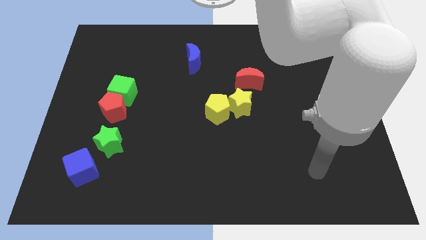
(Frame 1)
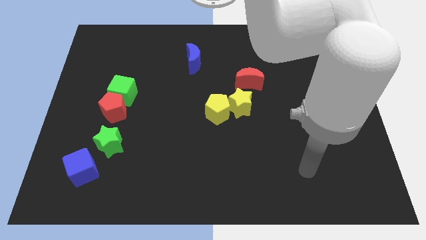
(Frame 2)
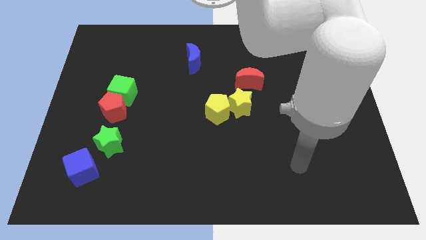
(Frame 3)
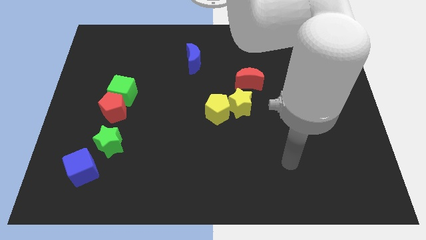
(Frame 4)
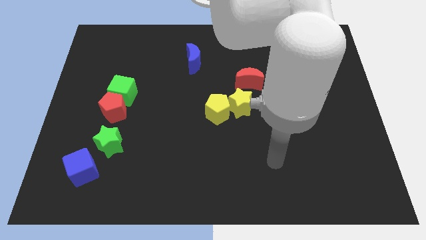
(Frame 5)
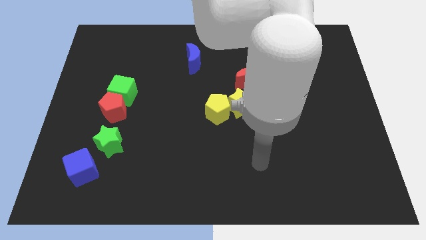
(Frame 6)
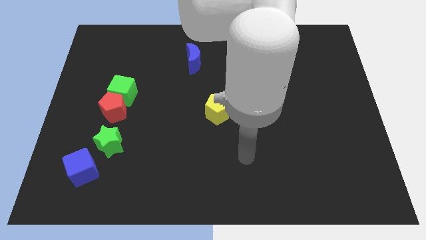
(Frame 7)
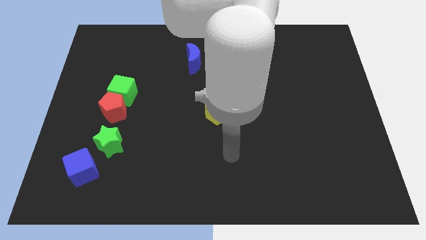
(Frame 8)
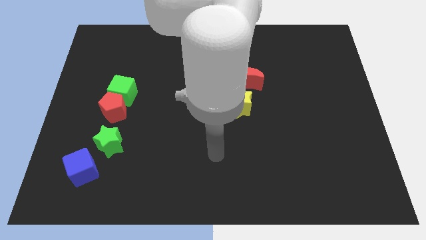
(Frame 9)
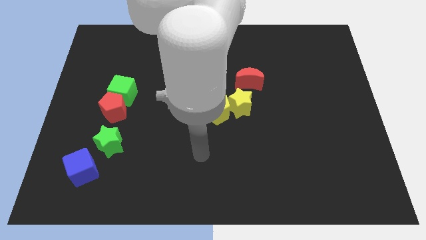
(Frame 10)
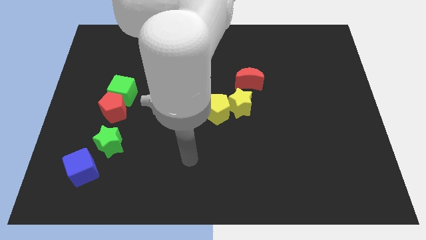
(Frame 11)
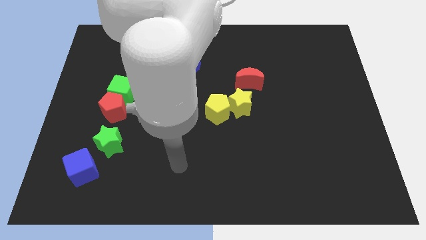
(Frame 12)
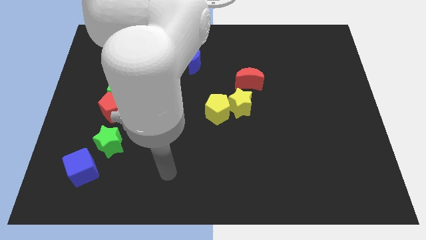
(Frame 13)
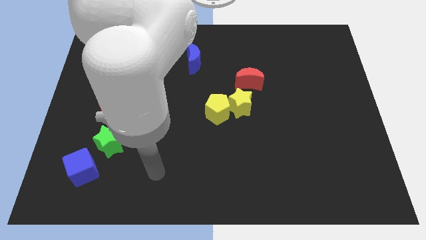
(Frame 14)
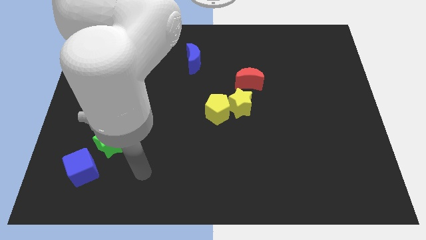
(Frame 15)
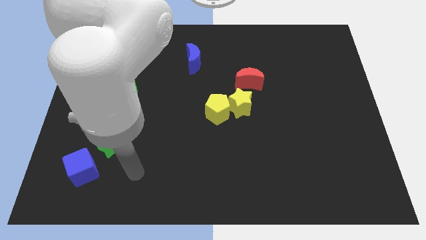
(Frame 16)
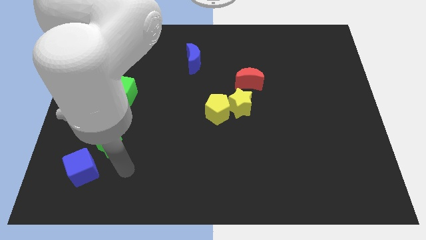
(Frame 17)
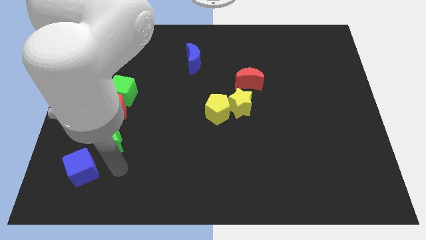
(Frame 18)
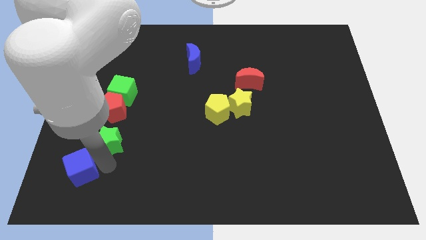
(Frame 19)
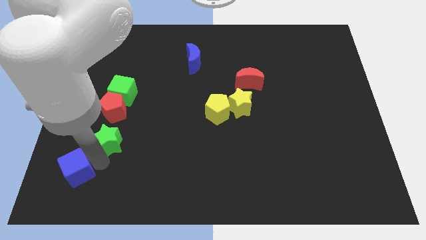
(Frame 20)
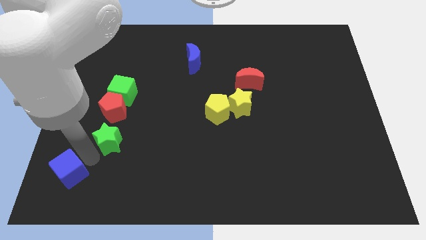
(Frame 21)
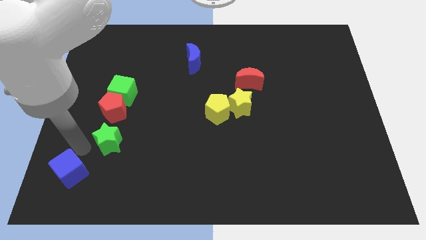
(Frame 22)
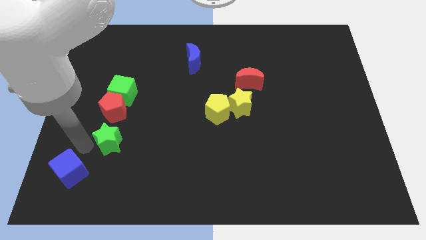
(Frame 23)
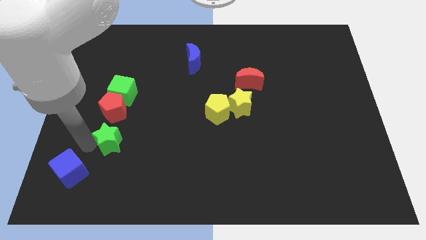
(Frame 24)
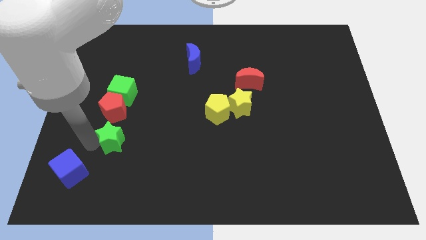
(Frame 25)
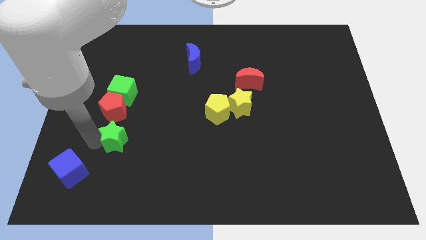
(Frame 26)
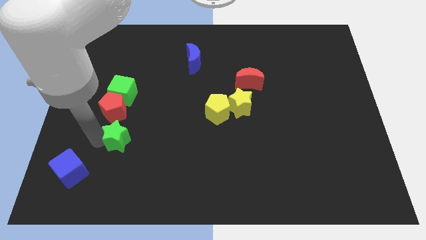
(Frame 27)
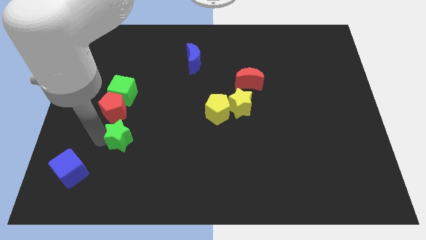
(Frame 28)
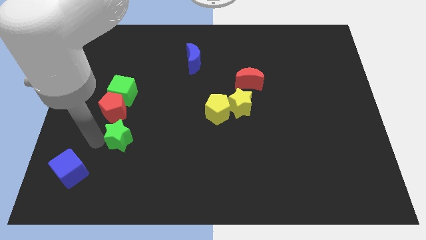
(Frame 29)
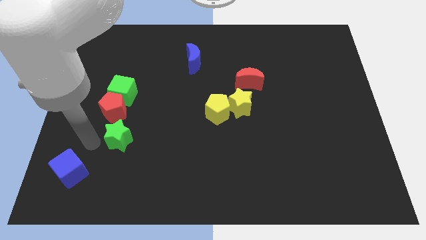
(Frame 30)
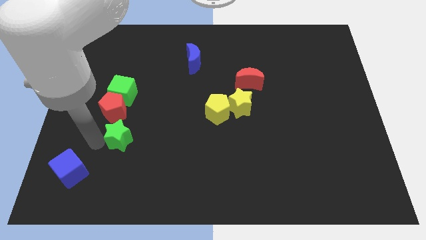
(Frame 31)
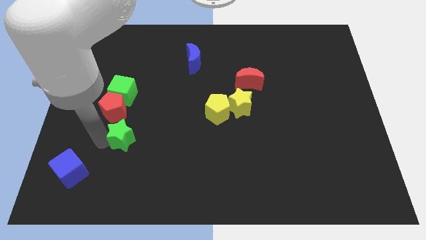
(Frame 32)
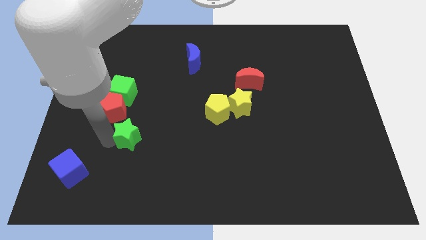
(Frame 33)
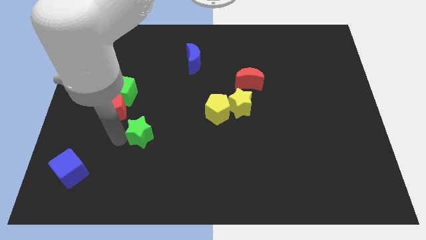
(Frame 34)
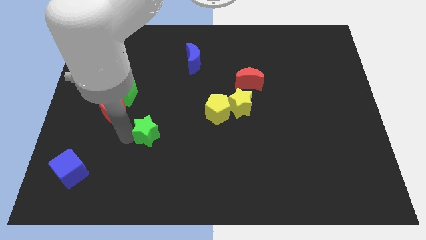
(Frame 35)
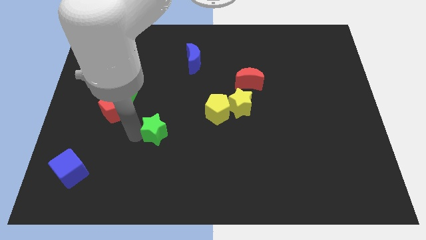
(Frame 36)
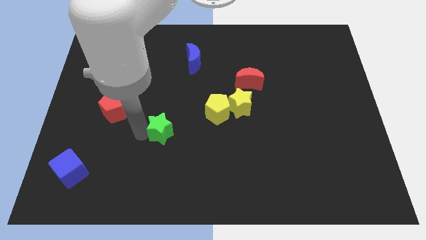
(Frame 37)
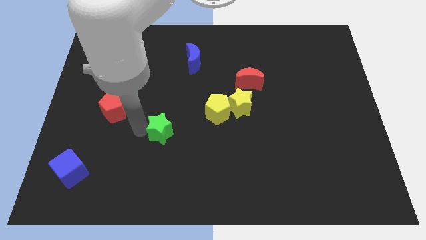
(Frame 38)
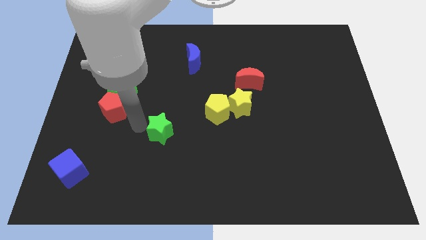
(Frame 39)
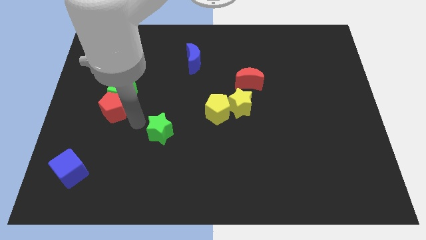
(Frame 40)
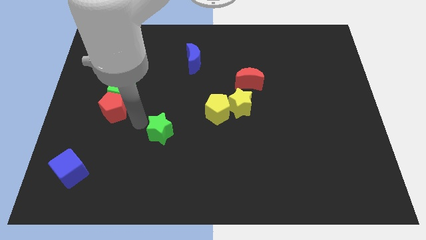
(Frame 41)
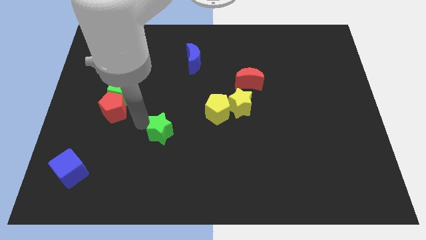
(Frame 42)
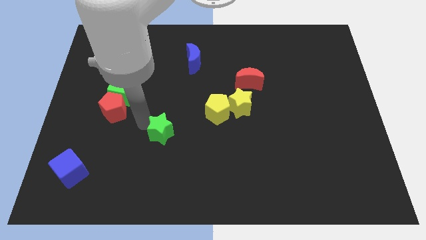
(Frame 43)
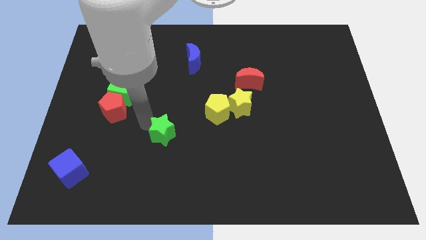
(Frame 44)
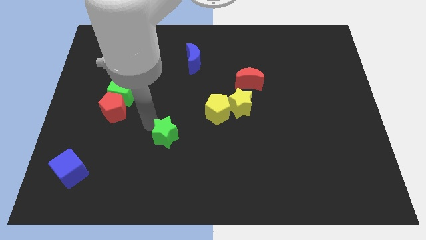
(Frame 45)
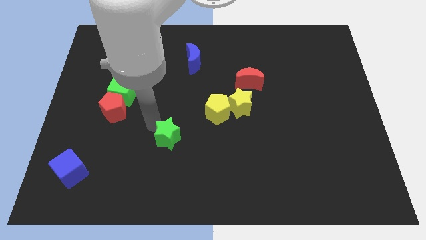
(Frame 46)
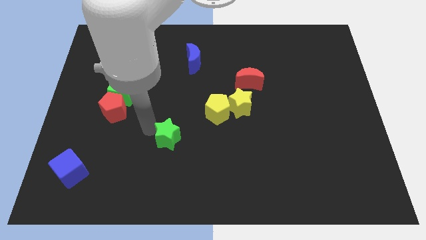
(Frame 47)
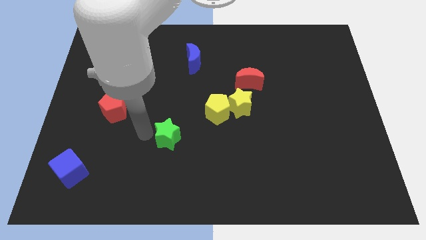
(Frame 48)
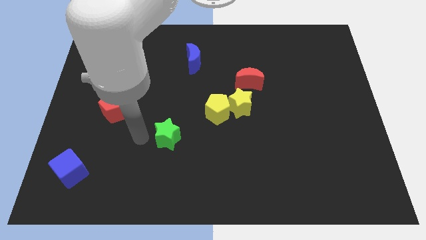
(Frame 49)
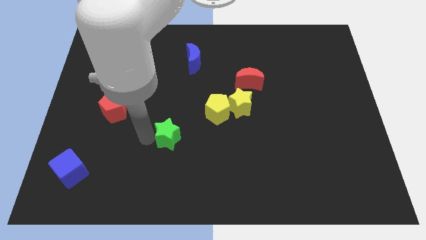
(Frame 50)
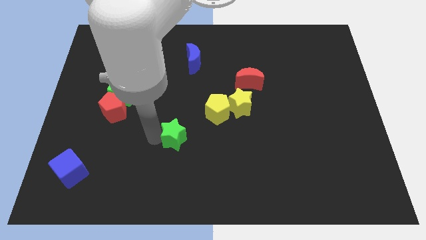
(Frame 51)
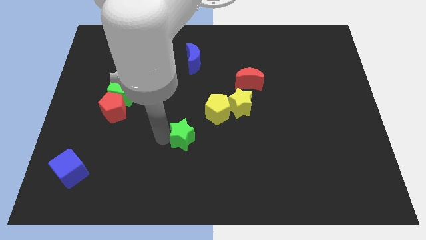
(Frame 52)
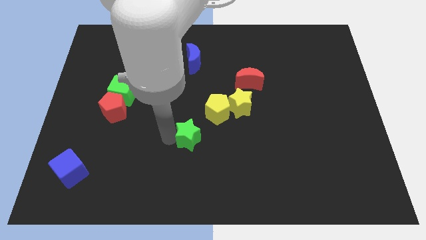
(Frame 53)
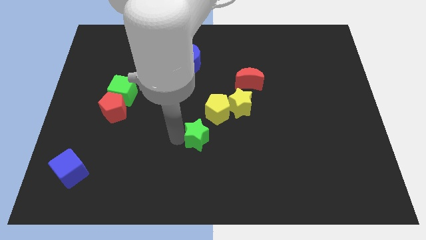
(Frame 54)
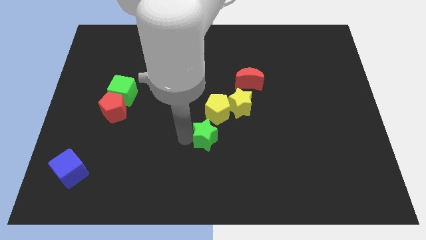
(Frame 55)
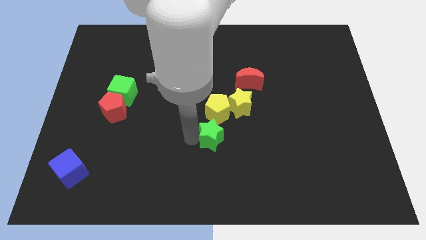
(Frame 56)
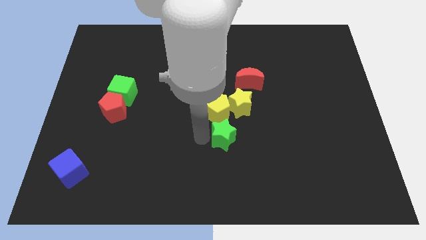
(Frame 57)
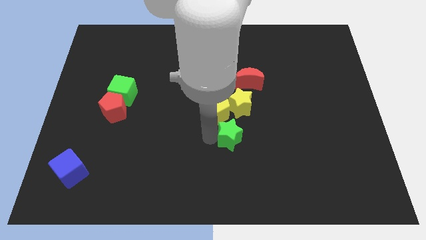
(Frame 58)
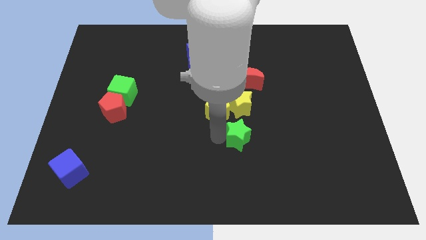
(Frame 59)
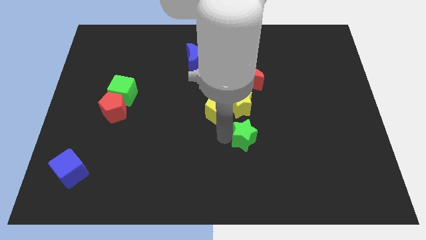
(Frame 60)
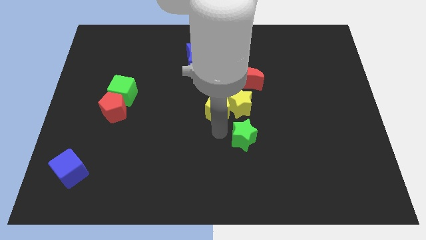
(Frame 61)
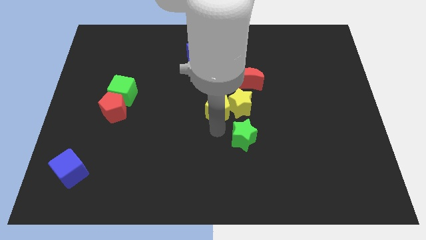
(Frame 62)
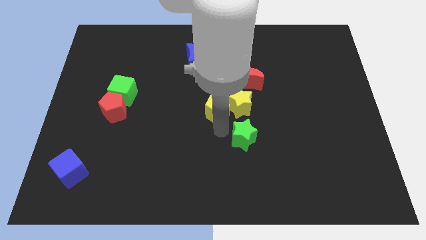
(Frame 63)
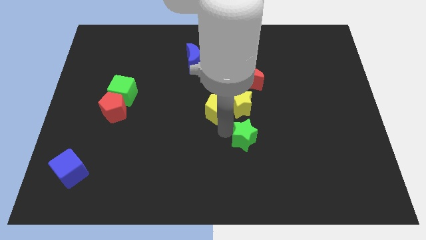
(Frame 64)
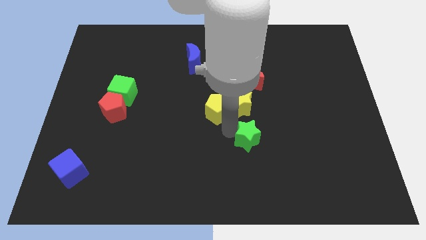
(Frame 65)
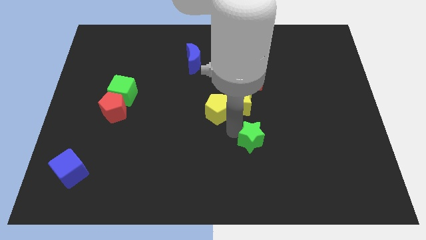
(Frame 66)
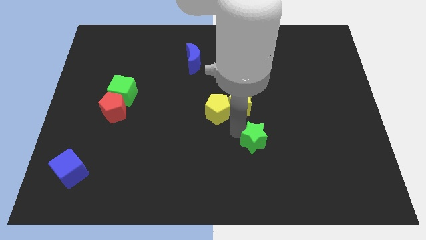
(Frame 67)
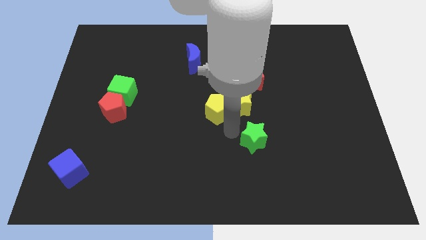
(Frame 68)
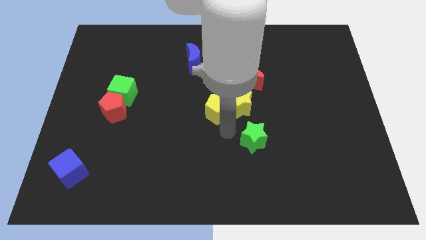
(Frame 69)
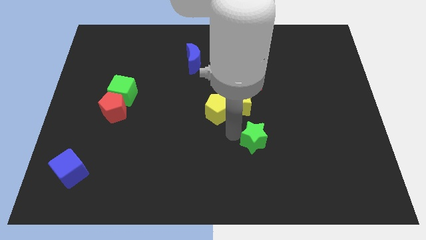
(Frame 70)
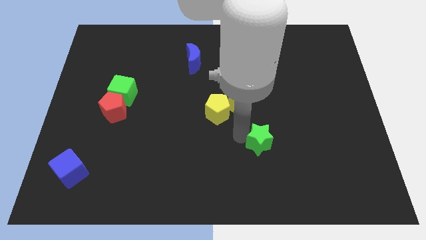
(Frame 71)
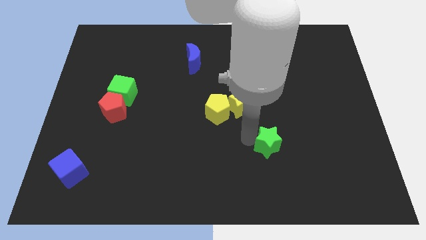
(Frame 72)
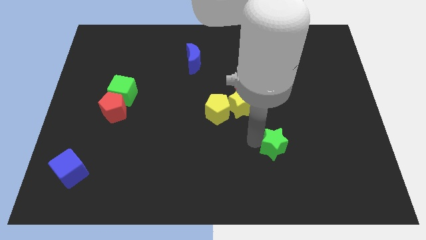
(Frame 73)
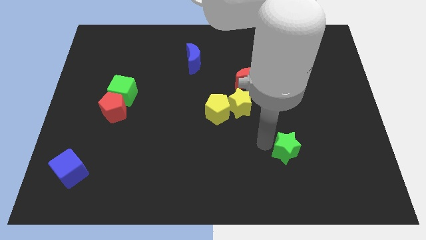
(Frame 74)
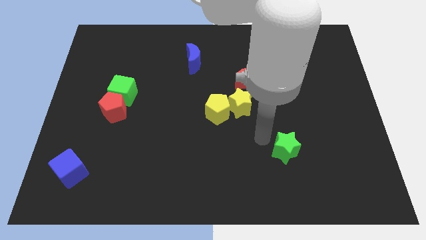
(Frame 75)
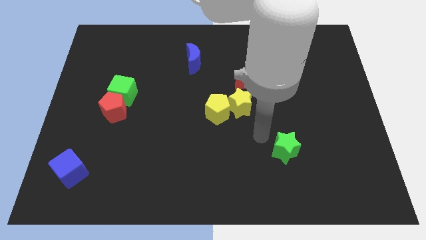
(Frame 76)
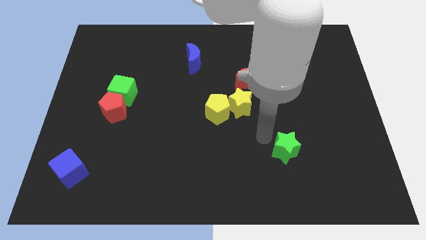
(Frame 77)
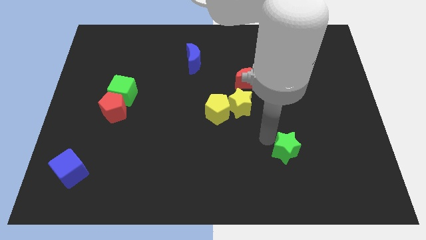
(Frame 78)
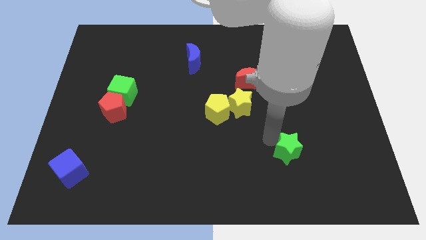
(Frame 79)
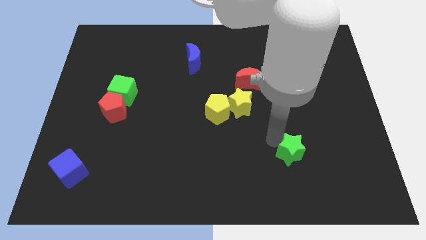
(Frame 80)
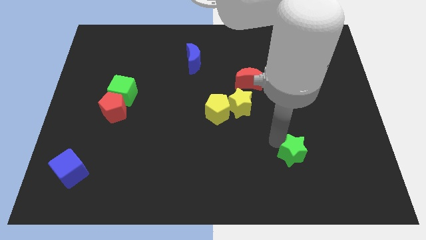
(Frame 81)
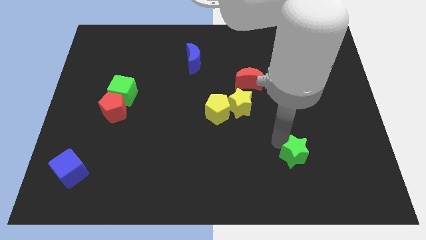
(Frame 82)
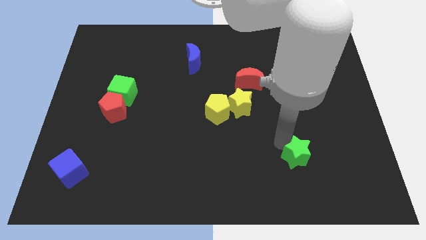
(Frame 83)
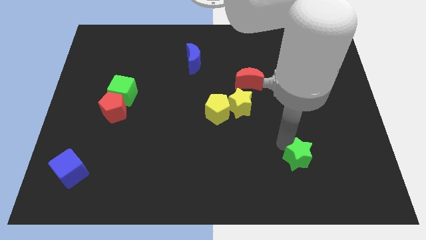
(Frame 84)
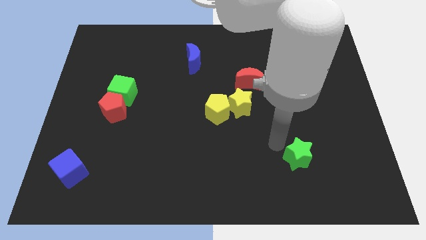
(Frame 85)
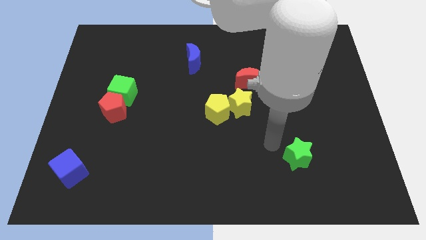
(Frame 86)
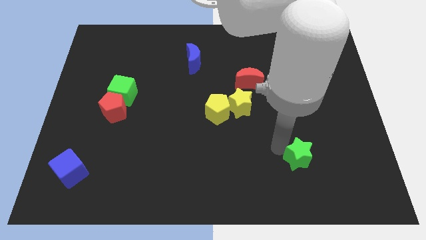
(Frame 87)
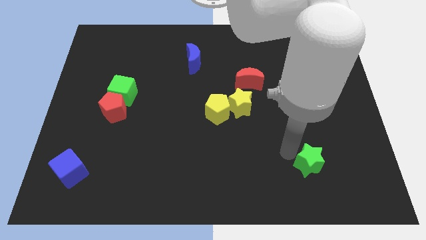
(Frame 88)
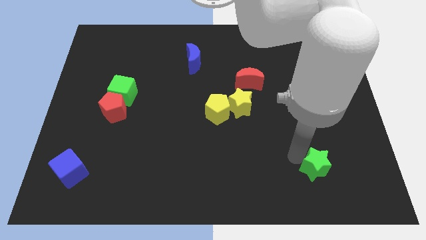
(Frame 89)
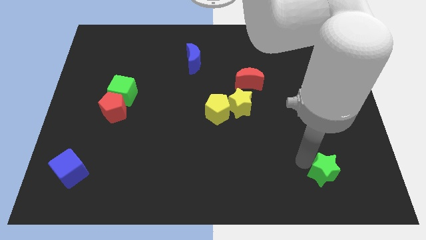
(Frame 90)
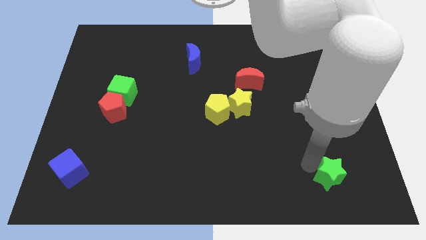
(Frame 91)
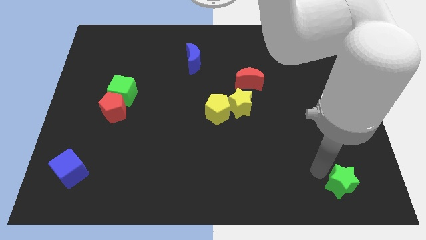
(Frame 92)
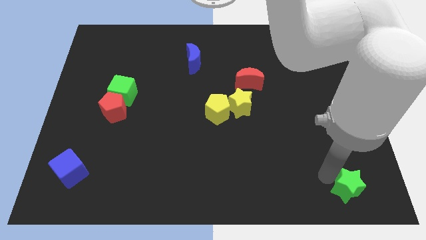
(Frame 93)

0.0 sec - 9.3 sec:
move the green star to the bottom right of the board
